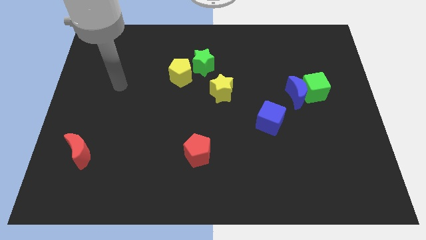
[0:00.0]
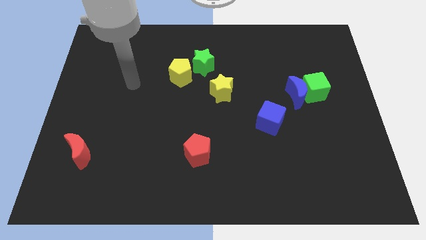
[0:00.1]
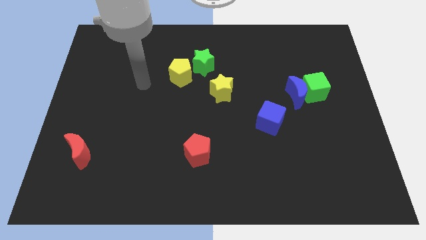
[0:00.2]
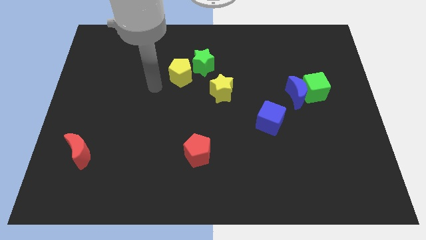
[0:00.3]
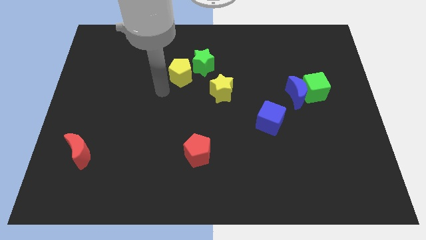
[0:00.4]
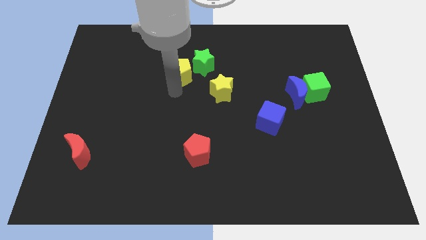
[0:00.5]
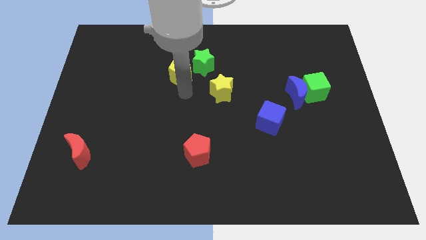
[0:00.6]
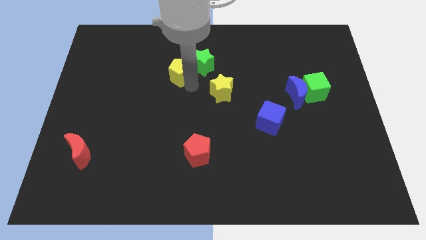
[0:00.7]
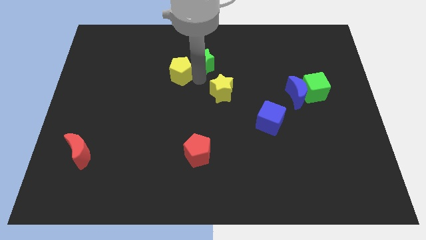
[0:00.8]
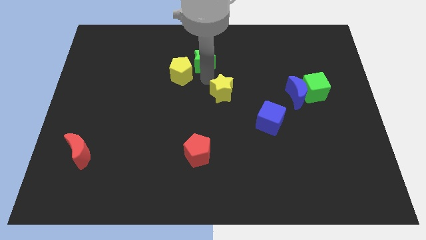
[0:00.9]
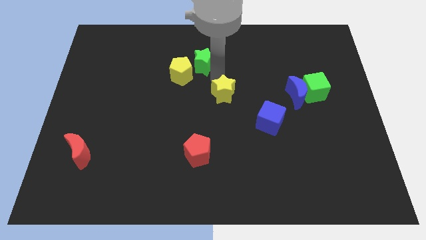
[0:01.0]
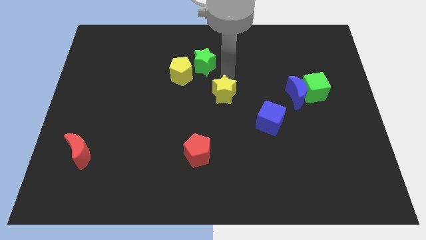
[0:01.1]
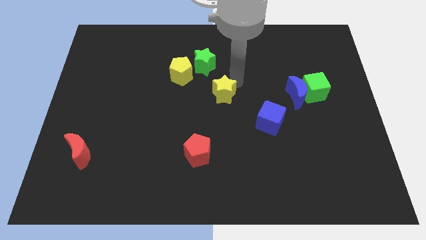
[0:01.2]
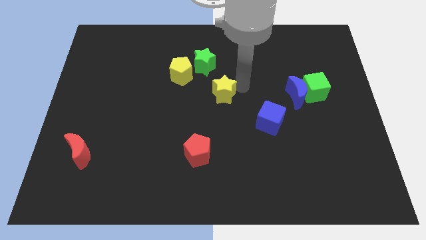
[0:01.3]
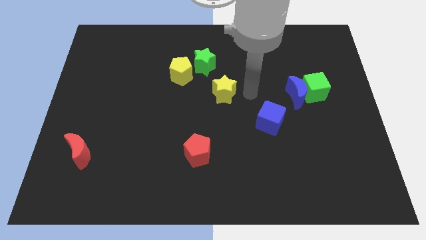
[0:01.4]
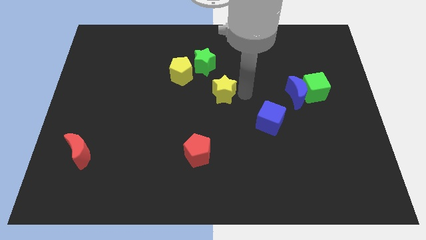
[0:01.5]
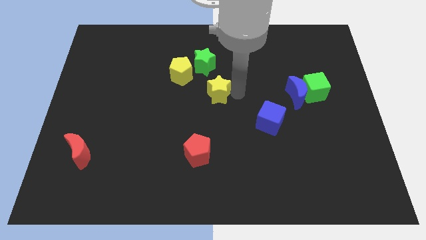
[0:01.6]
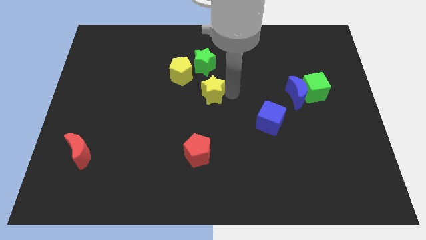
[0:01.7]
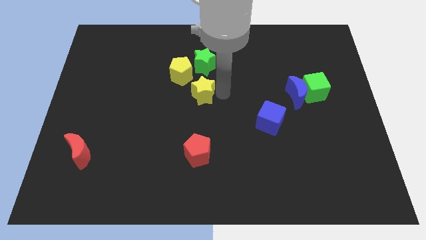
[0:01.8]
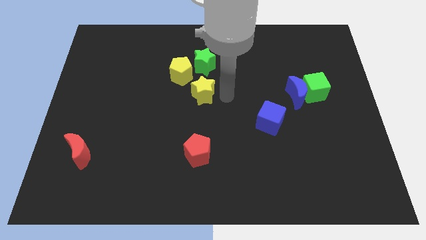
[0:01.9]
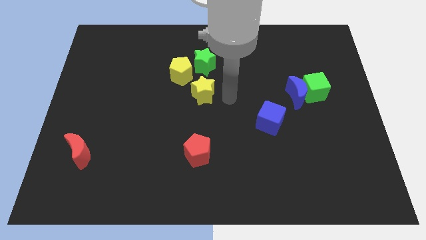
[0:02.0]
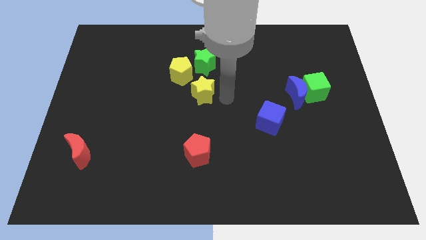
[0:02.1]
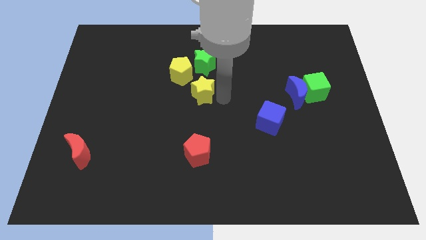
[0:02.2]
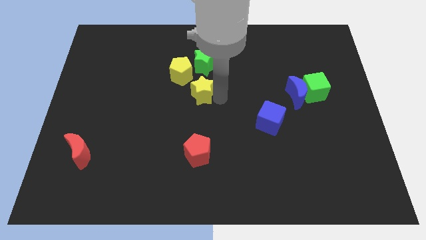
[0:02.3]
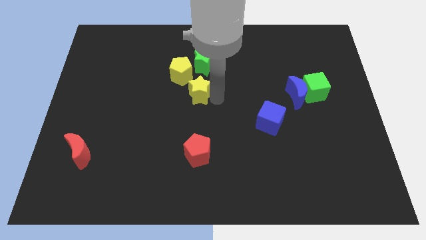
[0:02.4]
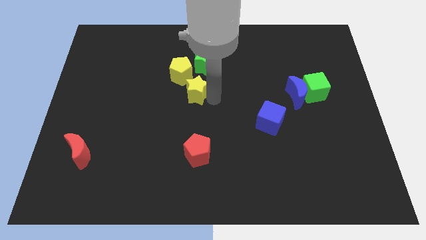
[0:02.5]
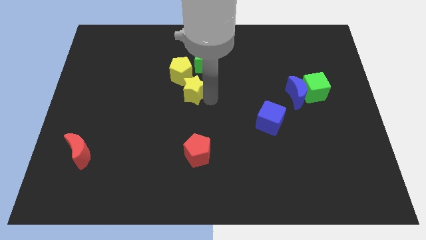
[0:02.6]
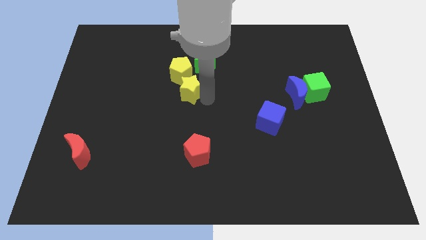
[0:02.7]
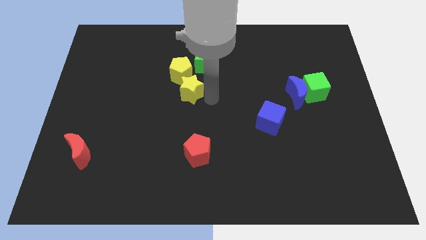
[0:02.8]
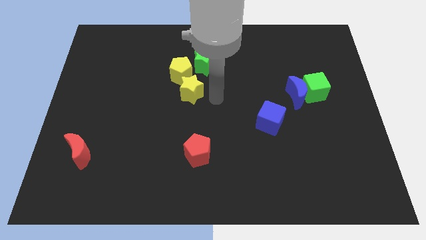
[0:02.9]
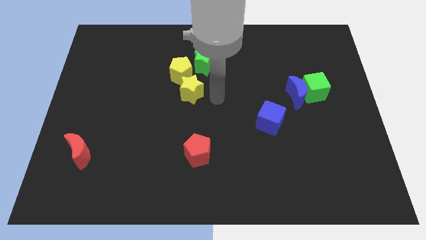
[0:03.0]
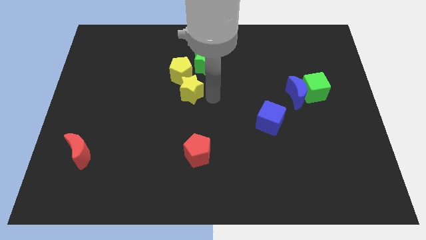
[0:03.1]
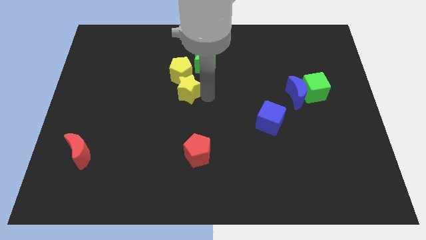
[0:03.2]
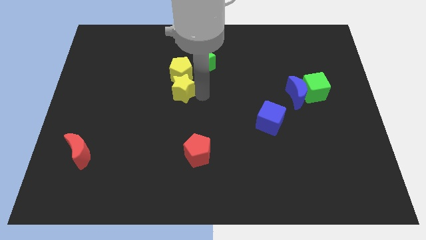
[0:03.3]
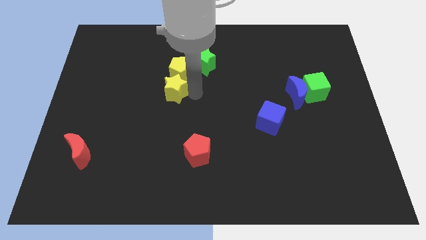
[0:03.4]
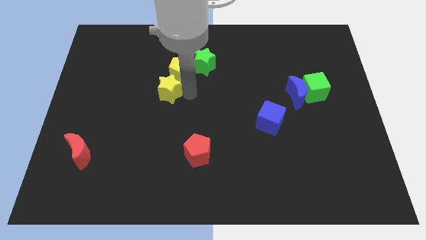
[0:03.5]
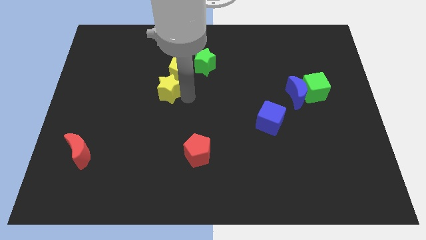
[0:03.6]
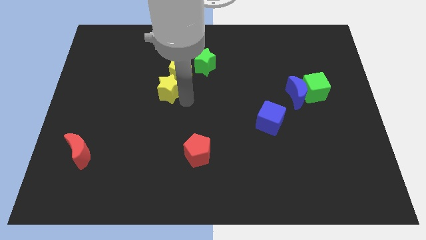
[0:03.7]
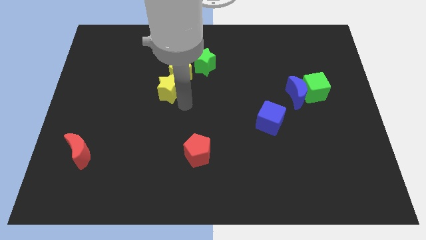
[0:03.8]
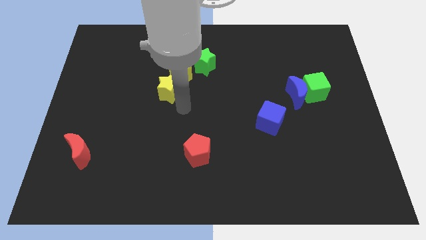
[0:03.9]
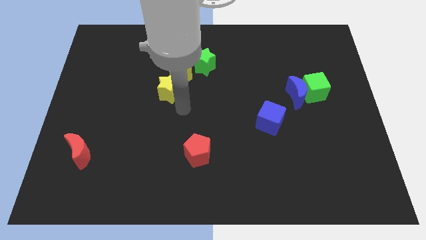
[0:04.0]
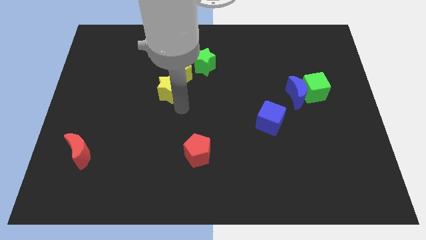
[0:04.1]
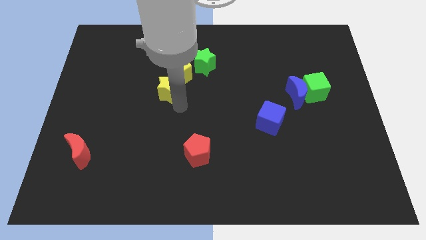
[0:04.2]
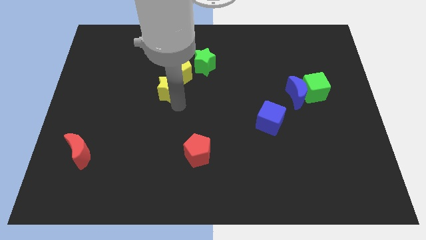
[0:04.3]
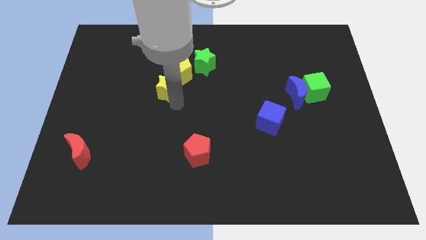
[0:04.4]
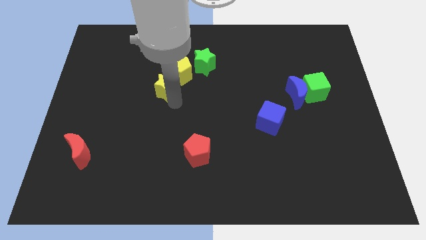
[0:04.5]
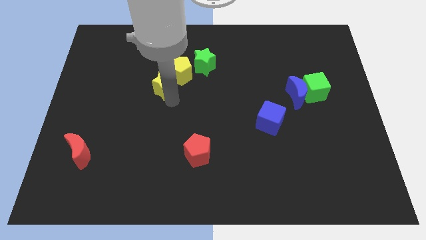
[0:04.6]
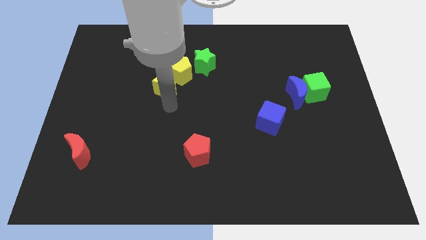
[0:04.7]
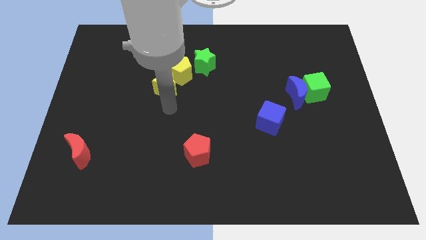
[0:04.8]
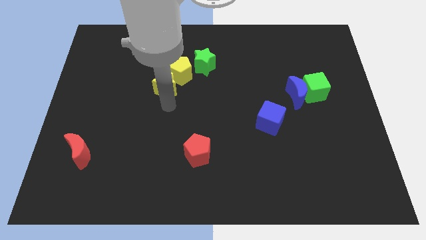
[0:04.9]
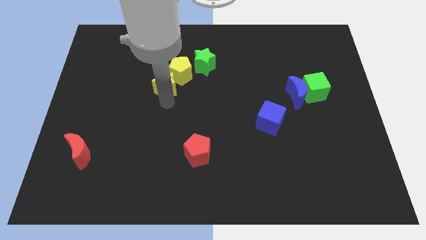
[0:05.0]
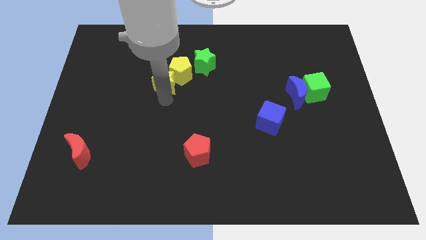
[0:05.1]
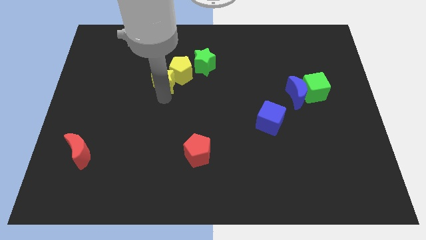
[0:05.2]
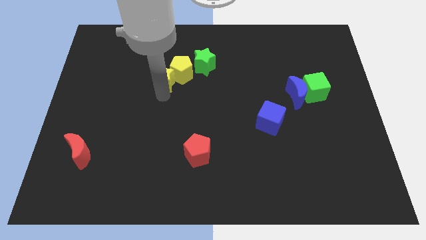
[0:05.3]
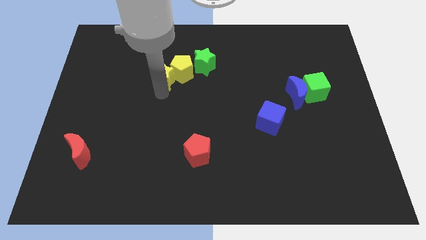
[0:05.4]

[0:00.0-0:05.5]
slide the yellow star to the left side of the green star

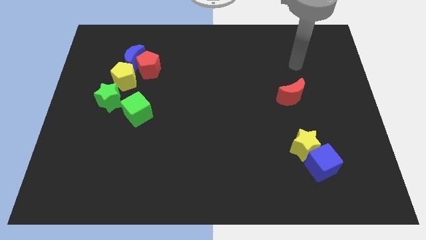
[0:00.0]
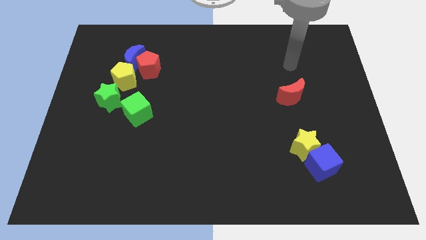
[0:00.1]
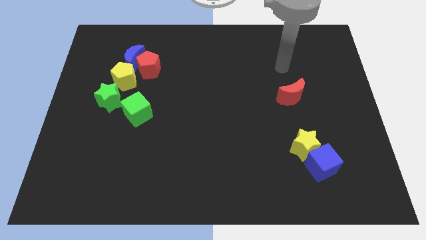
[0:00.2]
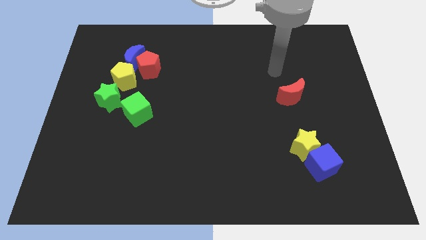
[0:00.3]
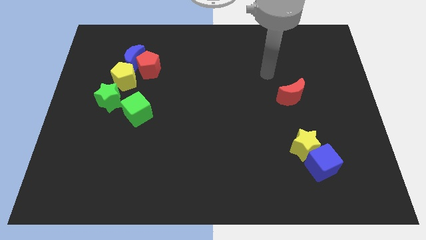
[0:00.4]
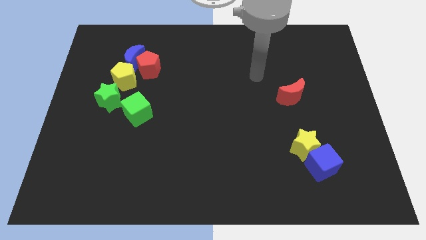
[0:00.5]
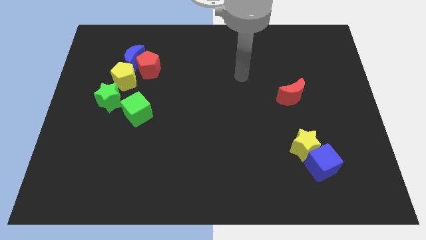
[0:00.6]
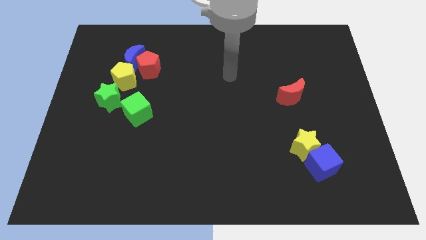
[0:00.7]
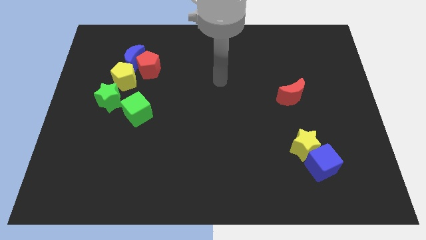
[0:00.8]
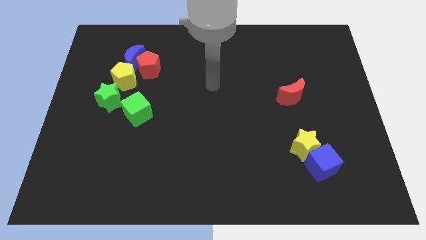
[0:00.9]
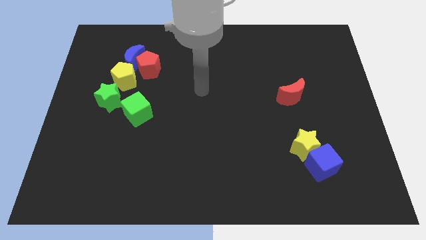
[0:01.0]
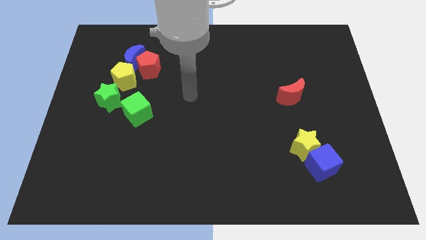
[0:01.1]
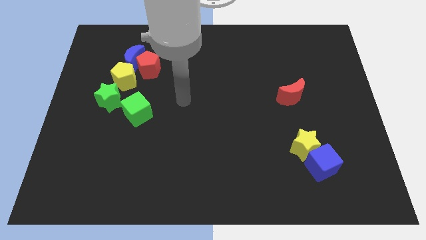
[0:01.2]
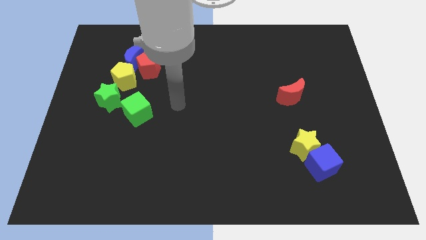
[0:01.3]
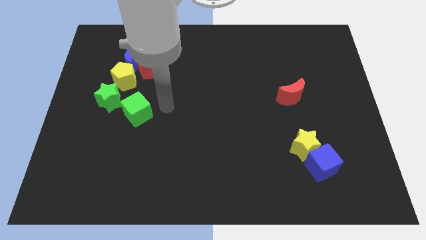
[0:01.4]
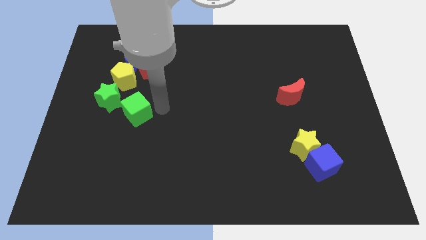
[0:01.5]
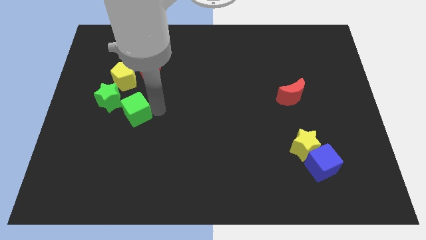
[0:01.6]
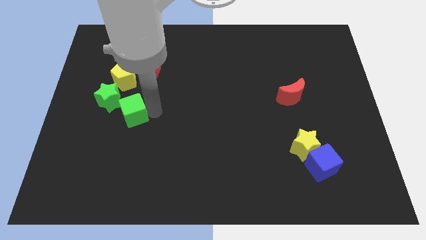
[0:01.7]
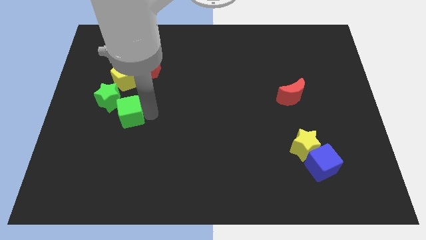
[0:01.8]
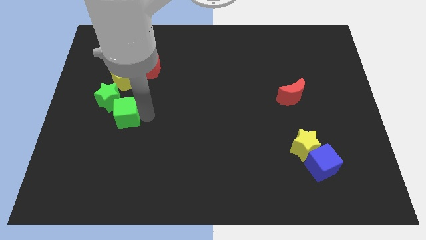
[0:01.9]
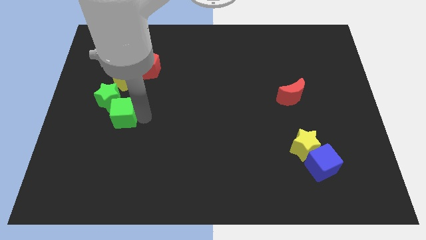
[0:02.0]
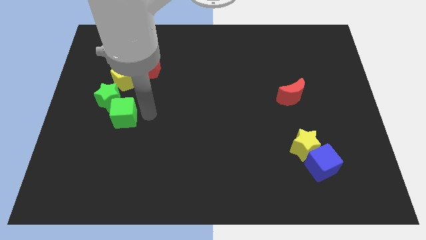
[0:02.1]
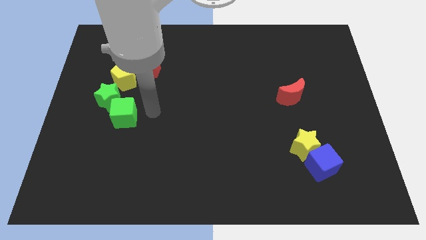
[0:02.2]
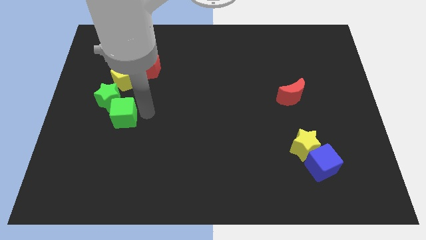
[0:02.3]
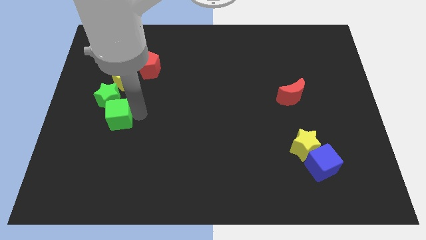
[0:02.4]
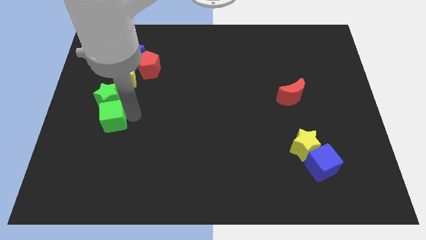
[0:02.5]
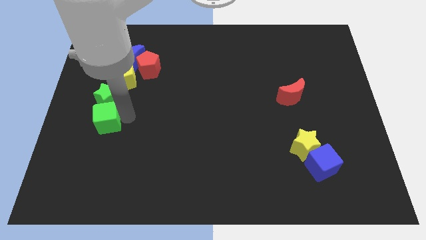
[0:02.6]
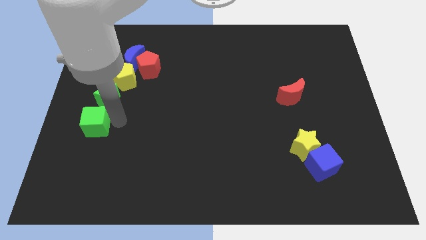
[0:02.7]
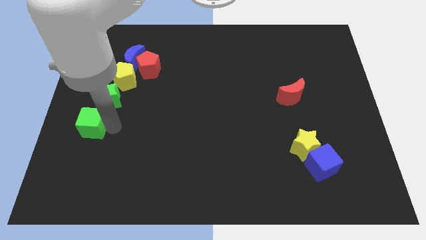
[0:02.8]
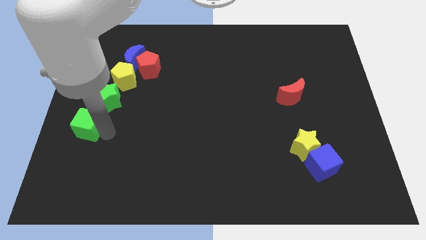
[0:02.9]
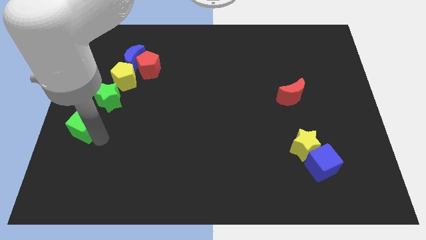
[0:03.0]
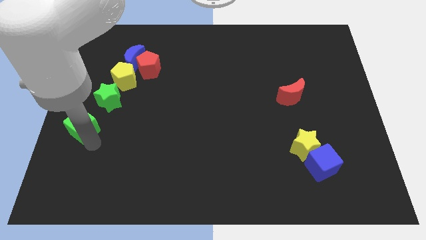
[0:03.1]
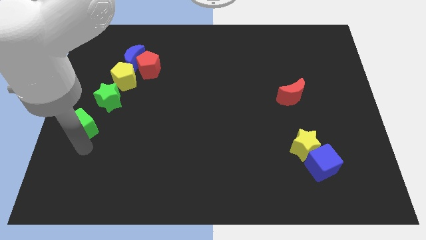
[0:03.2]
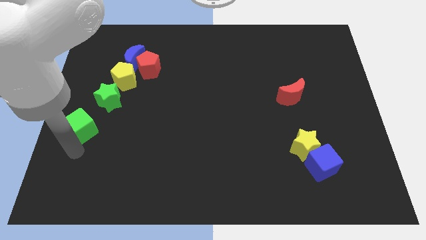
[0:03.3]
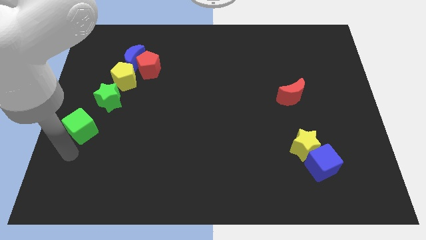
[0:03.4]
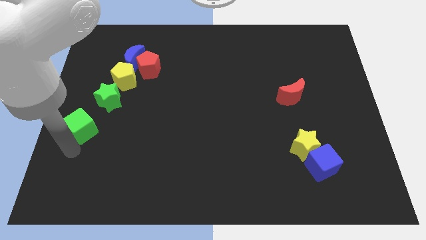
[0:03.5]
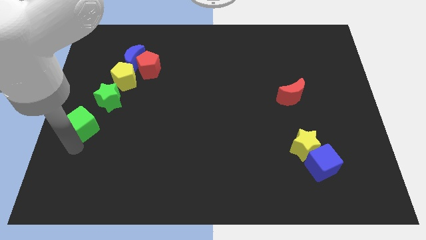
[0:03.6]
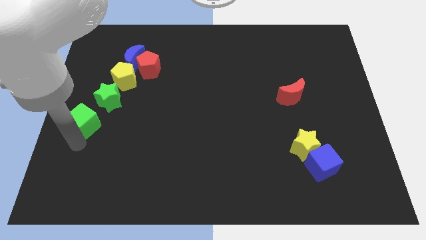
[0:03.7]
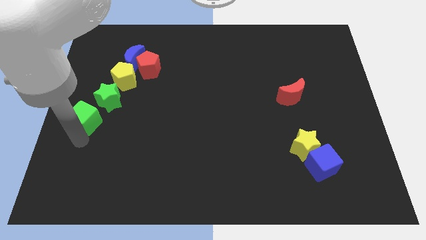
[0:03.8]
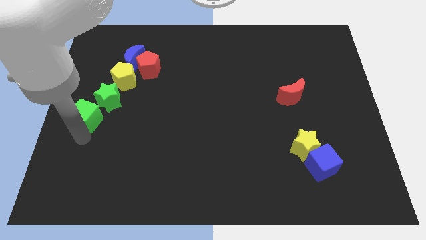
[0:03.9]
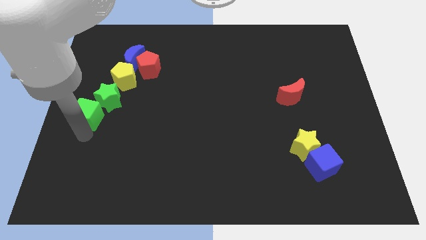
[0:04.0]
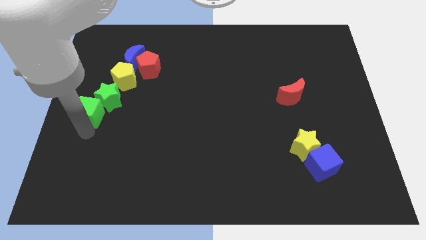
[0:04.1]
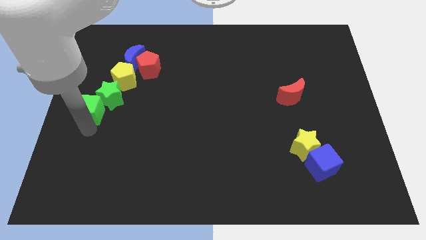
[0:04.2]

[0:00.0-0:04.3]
move the green cube to the bottom left of the yellow pentagon
